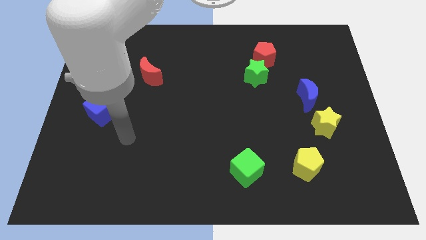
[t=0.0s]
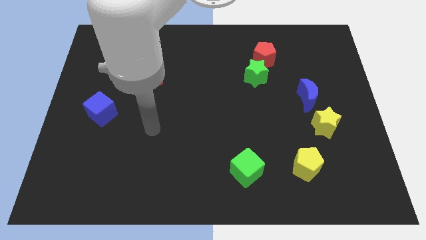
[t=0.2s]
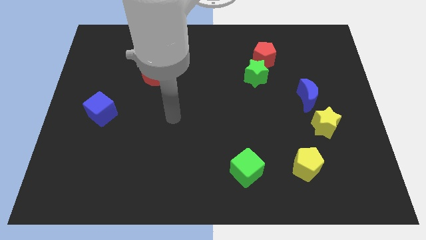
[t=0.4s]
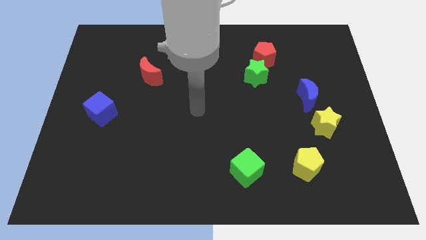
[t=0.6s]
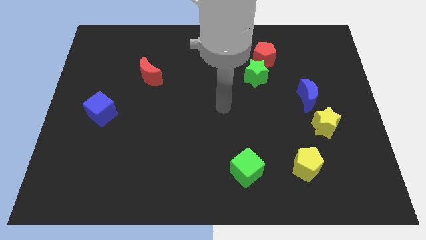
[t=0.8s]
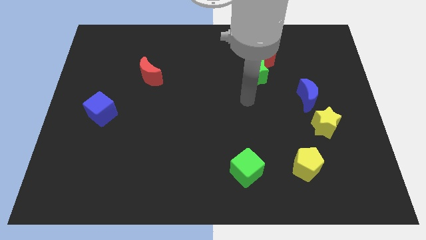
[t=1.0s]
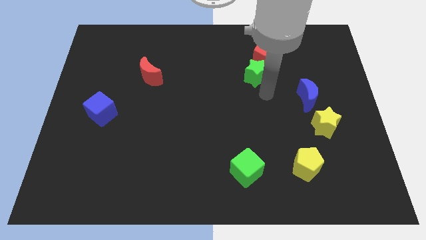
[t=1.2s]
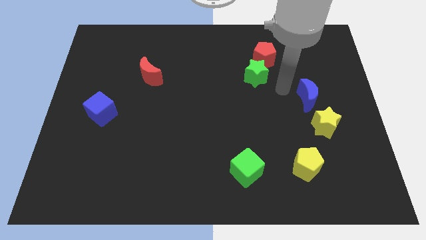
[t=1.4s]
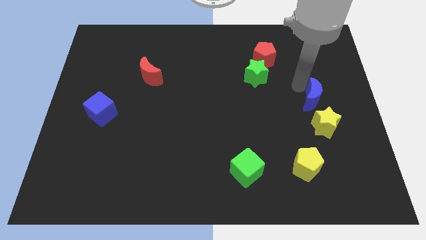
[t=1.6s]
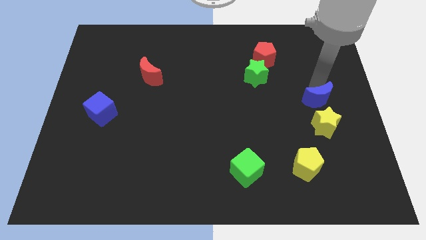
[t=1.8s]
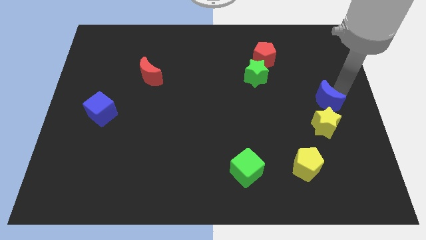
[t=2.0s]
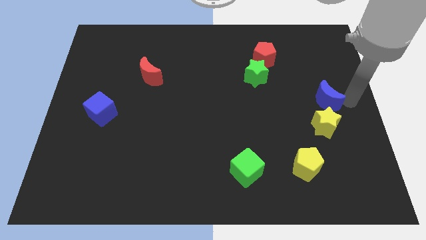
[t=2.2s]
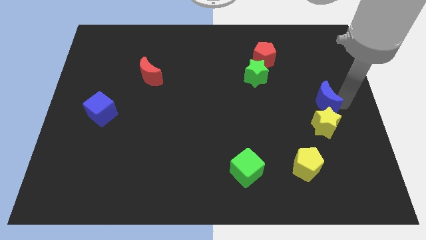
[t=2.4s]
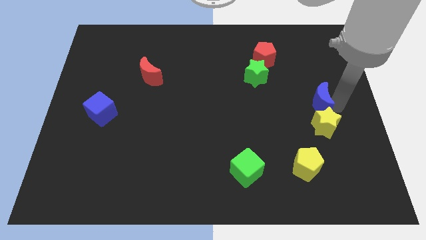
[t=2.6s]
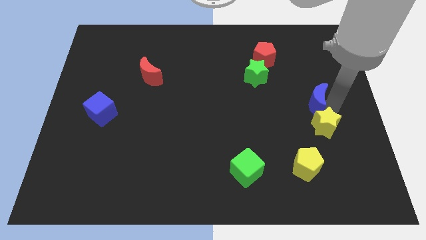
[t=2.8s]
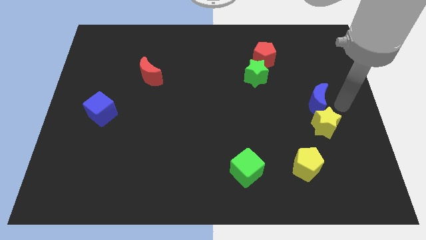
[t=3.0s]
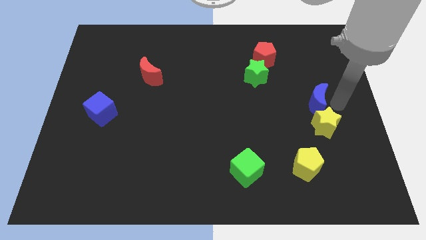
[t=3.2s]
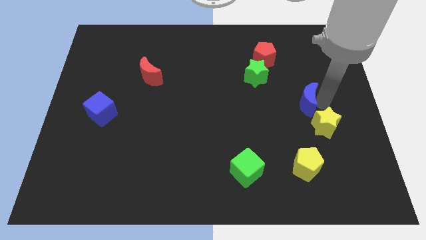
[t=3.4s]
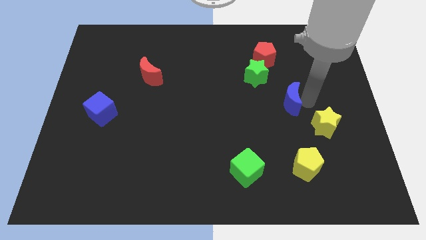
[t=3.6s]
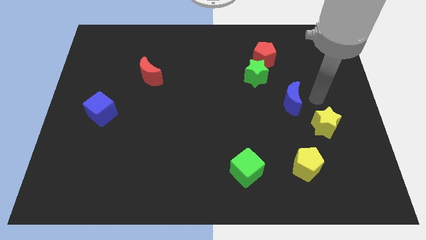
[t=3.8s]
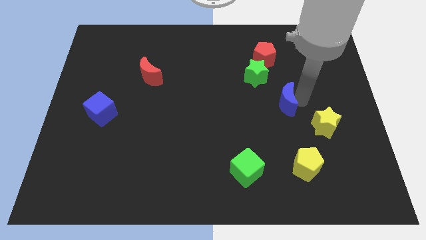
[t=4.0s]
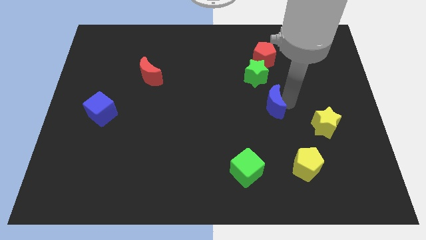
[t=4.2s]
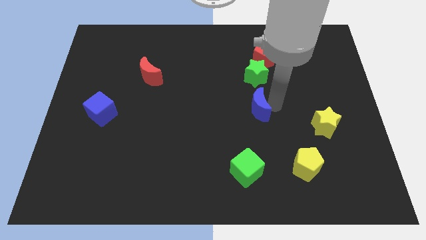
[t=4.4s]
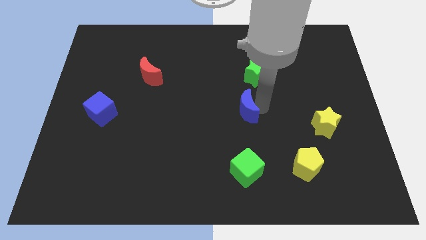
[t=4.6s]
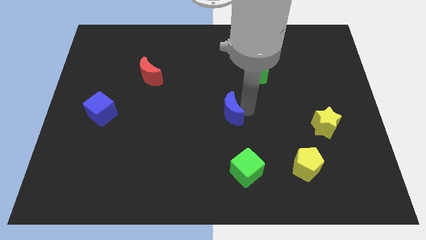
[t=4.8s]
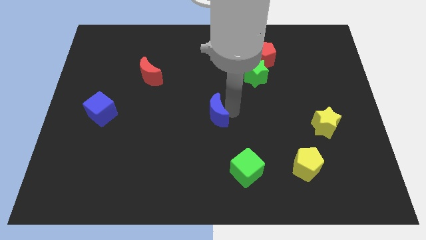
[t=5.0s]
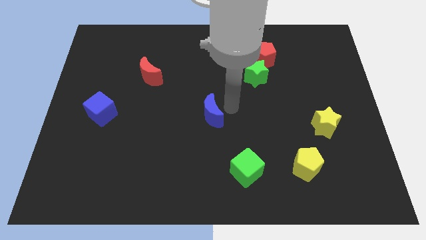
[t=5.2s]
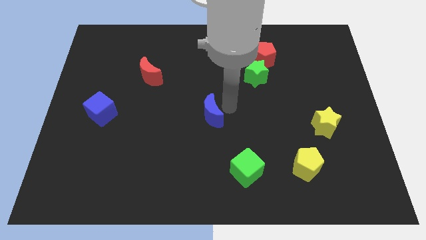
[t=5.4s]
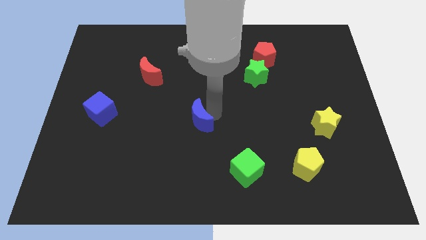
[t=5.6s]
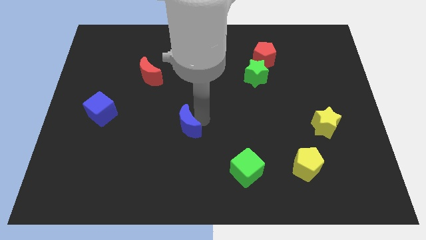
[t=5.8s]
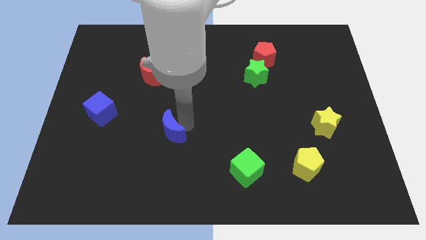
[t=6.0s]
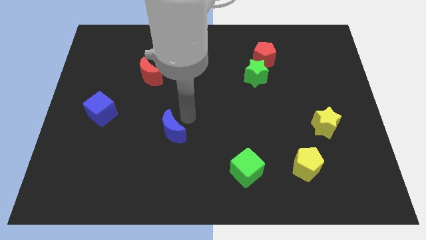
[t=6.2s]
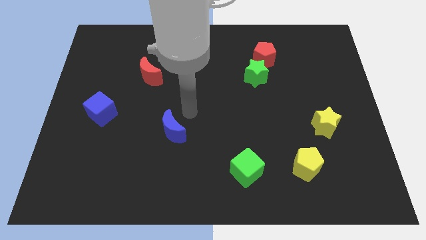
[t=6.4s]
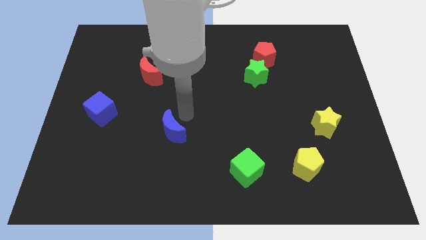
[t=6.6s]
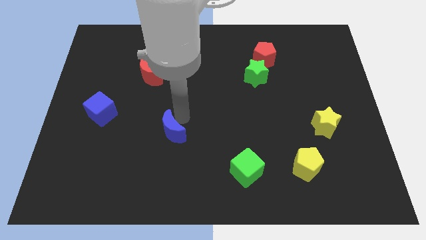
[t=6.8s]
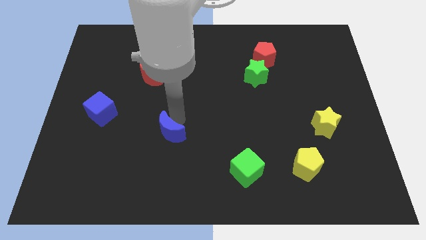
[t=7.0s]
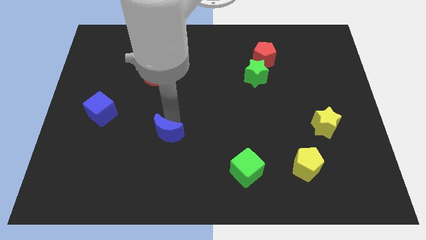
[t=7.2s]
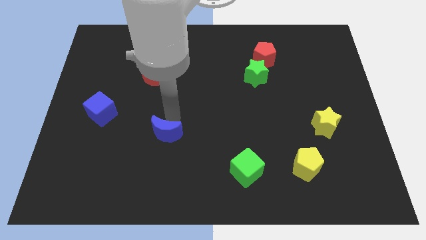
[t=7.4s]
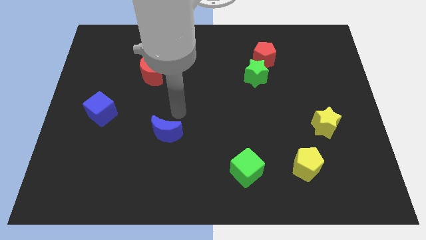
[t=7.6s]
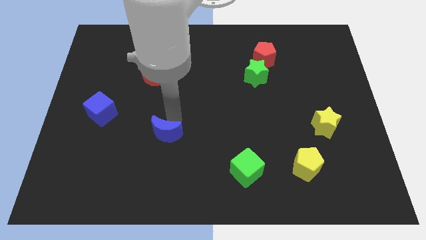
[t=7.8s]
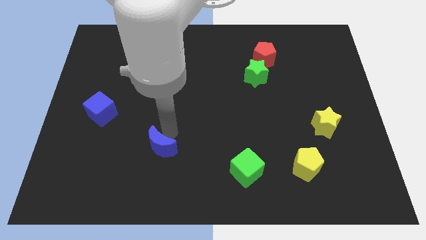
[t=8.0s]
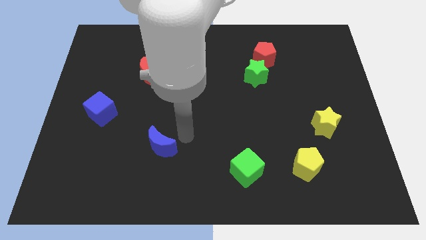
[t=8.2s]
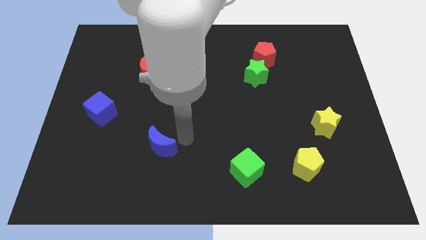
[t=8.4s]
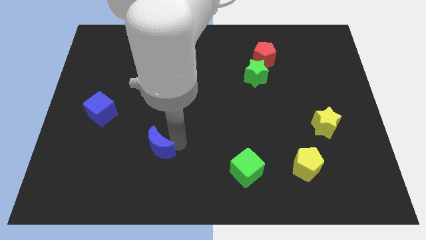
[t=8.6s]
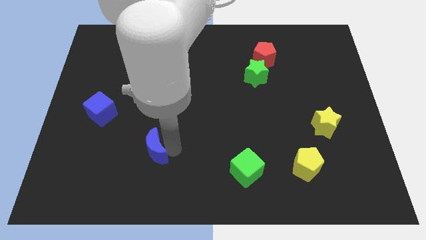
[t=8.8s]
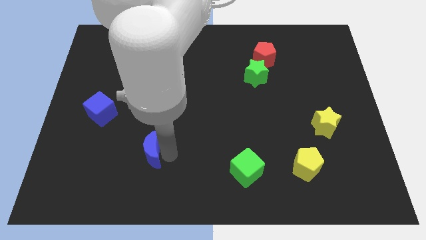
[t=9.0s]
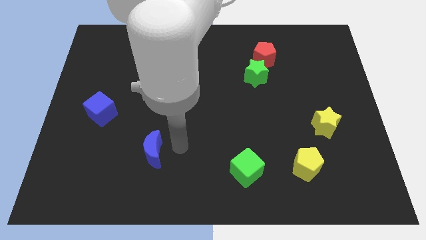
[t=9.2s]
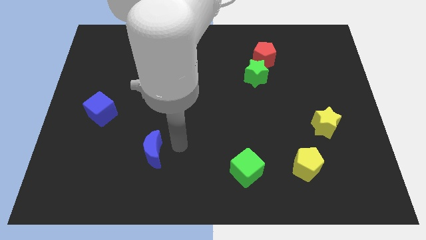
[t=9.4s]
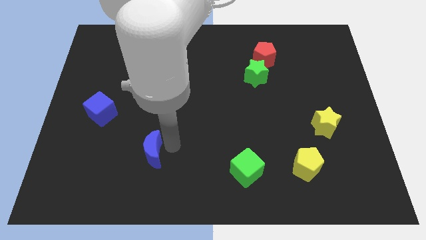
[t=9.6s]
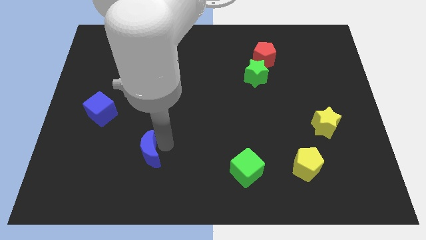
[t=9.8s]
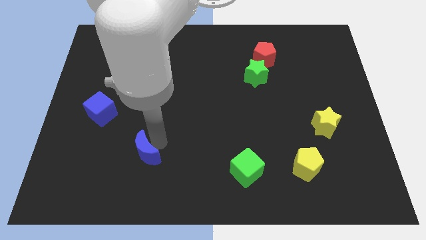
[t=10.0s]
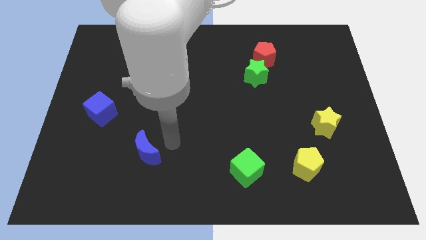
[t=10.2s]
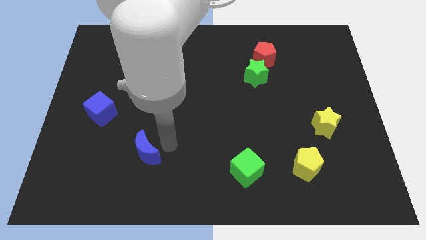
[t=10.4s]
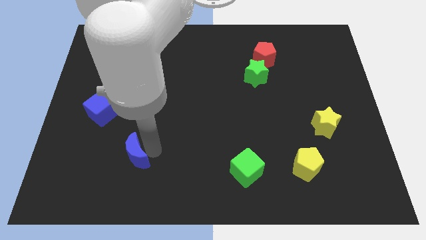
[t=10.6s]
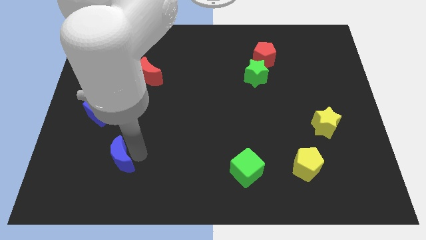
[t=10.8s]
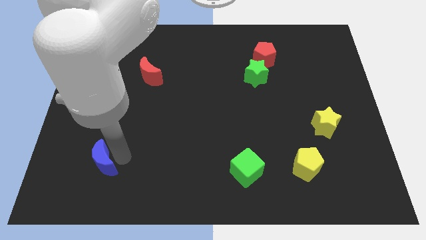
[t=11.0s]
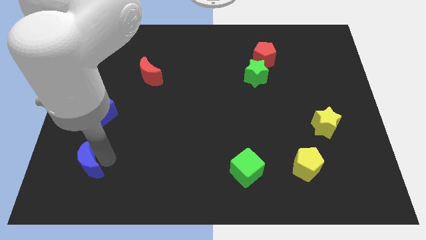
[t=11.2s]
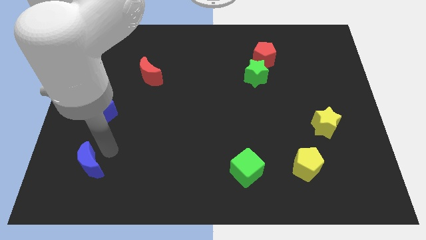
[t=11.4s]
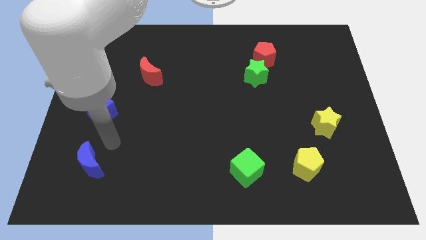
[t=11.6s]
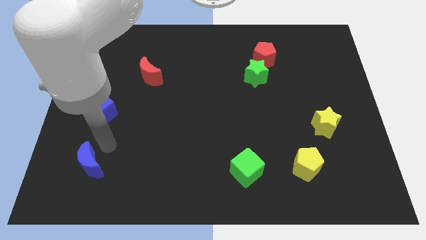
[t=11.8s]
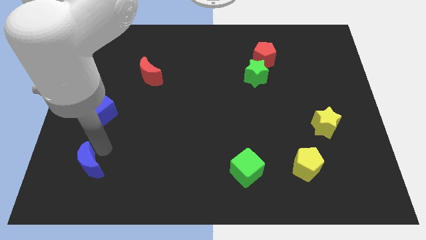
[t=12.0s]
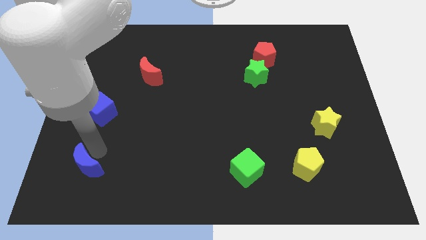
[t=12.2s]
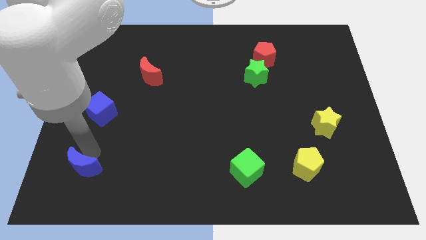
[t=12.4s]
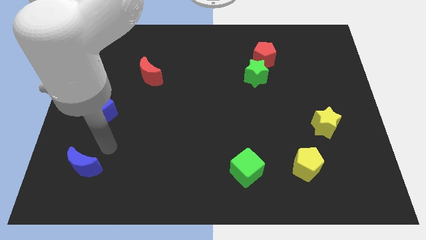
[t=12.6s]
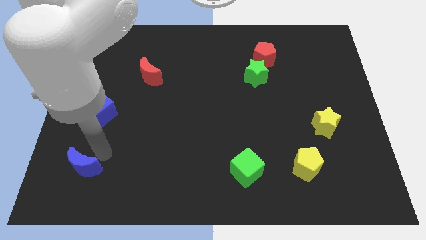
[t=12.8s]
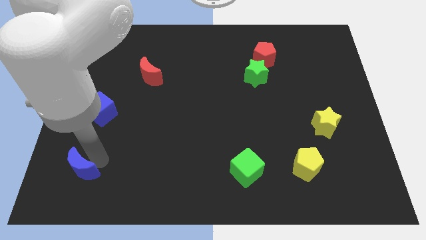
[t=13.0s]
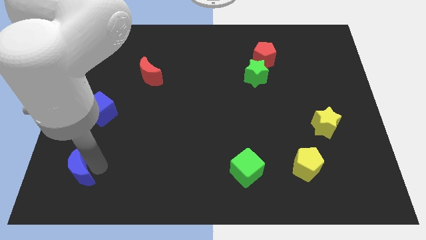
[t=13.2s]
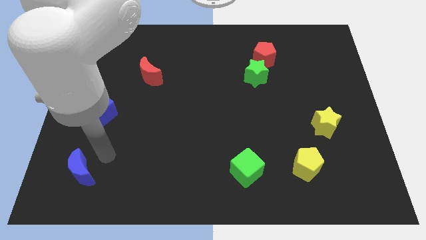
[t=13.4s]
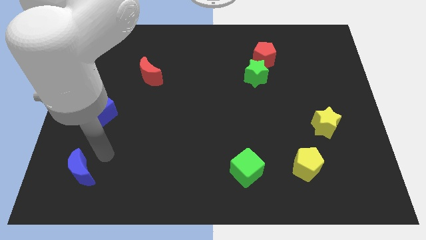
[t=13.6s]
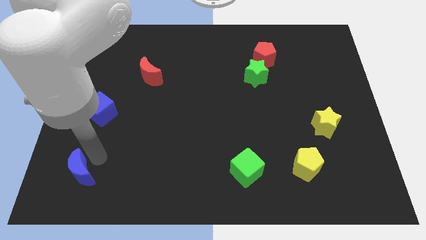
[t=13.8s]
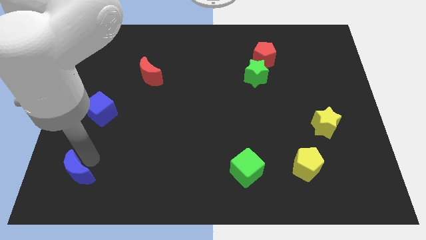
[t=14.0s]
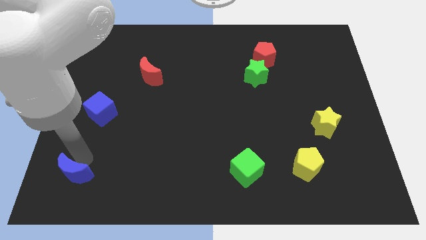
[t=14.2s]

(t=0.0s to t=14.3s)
push the blue moon to the bottom left

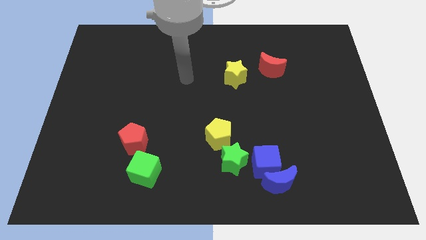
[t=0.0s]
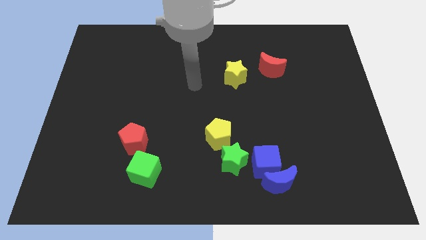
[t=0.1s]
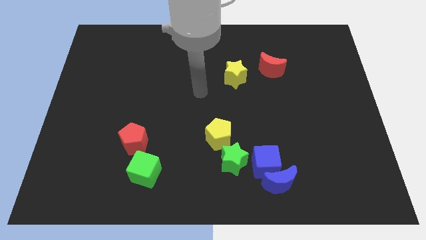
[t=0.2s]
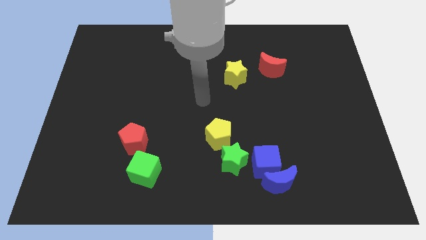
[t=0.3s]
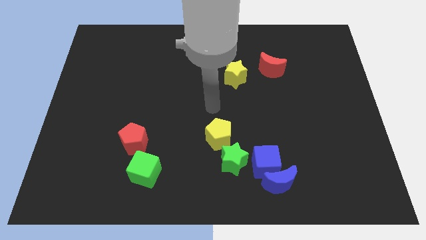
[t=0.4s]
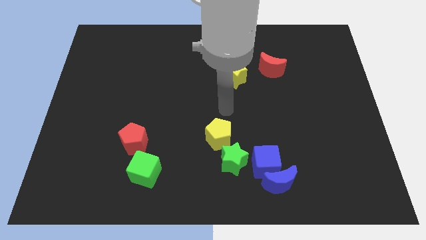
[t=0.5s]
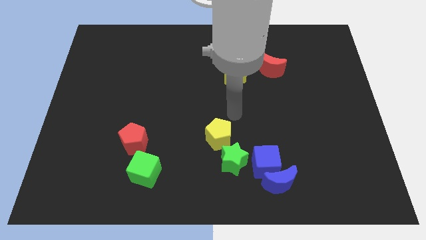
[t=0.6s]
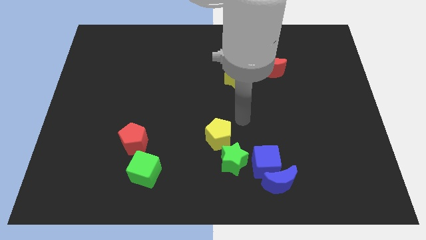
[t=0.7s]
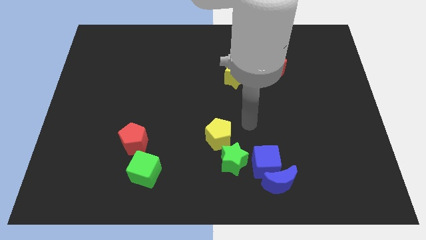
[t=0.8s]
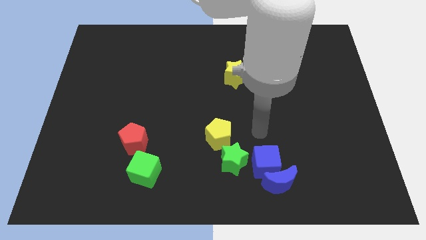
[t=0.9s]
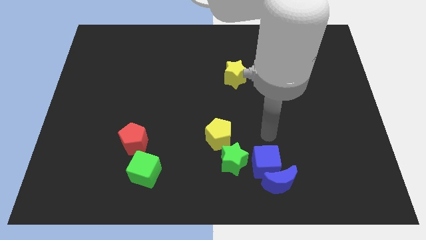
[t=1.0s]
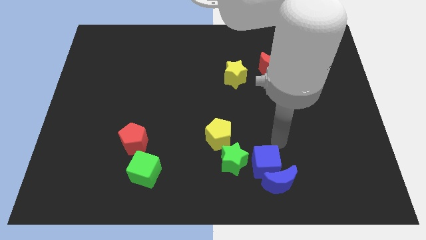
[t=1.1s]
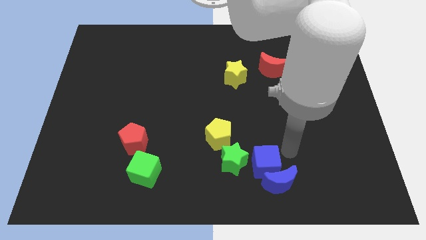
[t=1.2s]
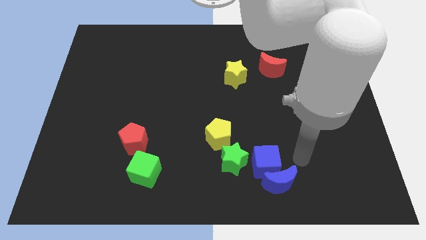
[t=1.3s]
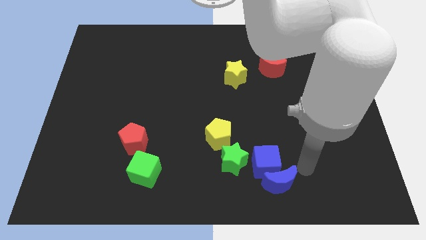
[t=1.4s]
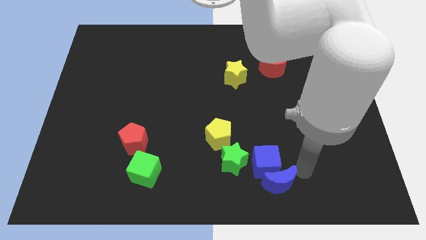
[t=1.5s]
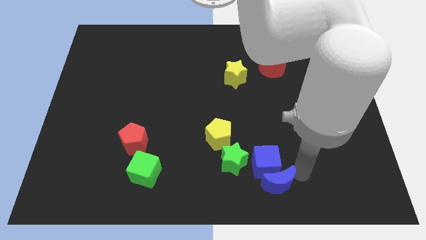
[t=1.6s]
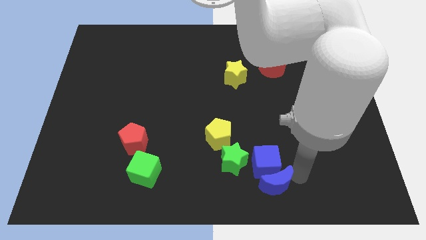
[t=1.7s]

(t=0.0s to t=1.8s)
push the blue moon to the bottom side
